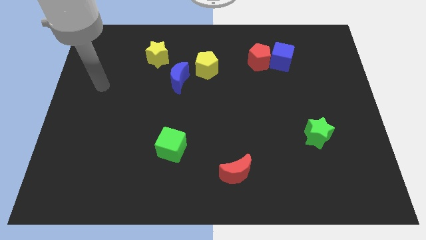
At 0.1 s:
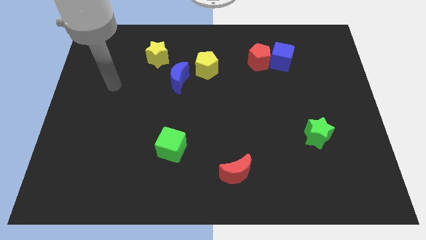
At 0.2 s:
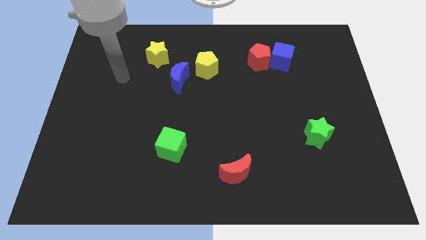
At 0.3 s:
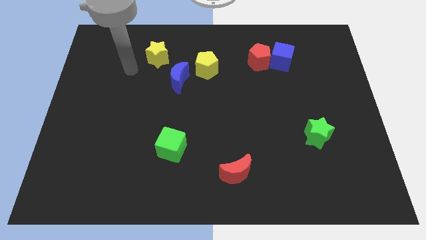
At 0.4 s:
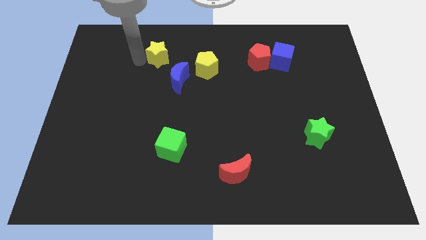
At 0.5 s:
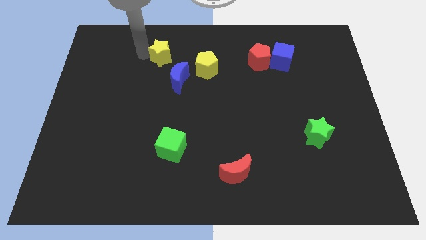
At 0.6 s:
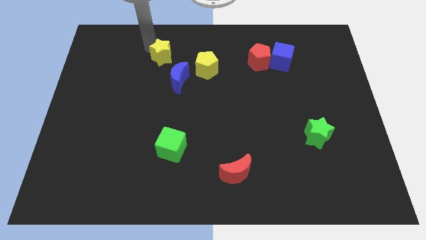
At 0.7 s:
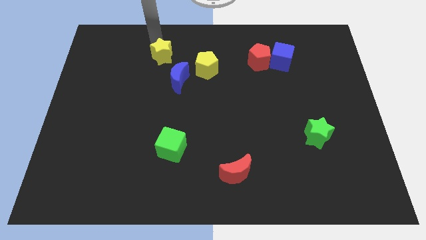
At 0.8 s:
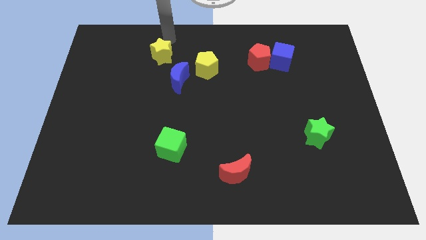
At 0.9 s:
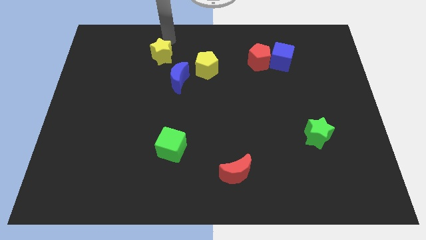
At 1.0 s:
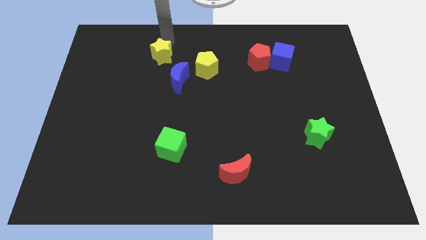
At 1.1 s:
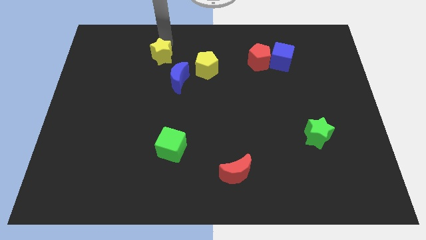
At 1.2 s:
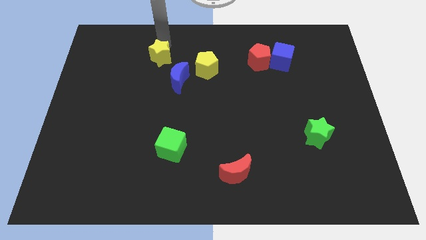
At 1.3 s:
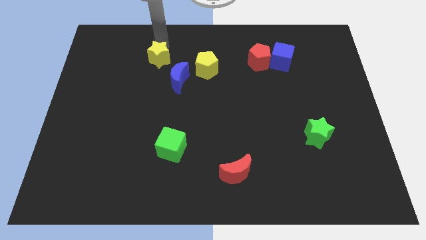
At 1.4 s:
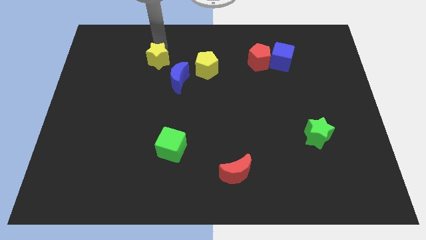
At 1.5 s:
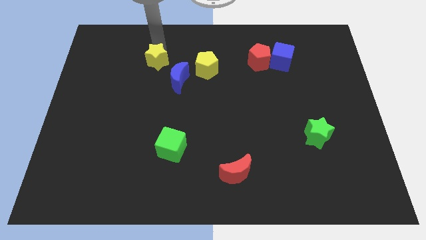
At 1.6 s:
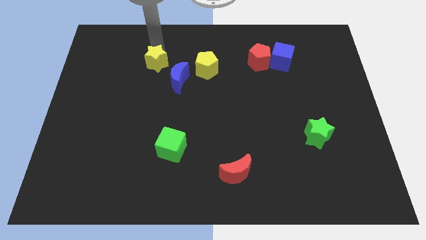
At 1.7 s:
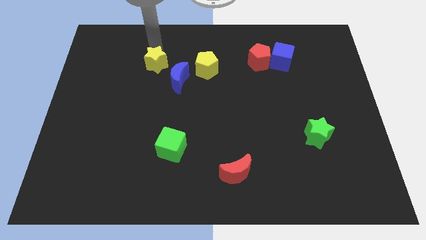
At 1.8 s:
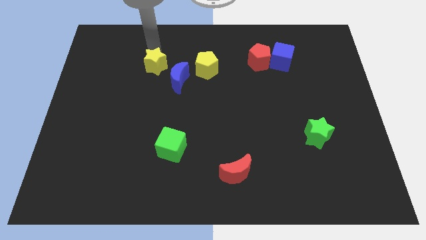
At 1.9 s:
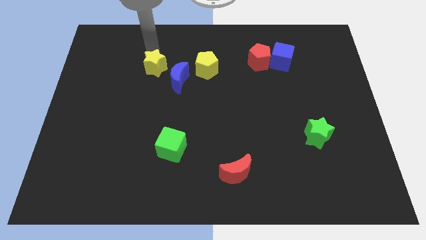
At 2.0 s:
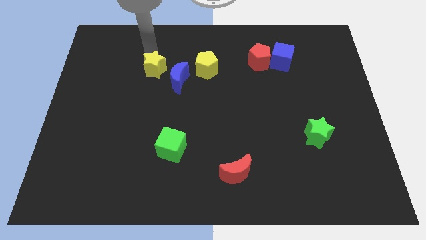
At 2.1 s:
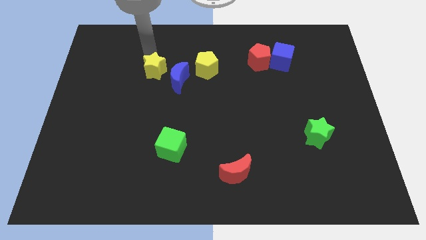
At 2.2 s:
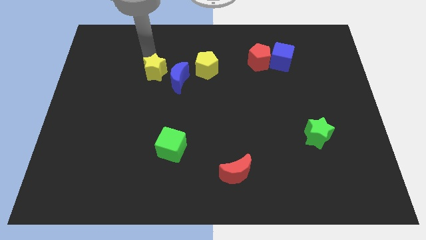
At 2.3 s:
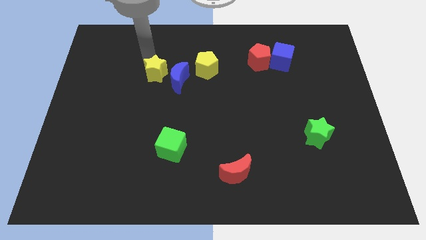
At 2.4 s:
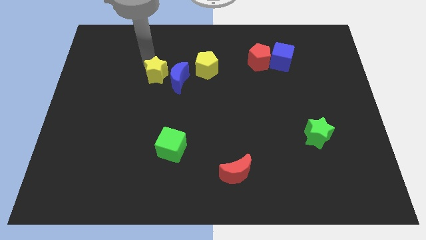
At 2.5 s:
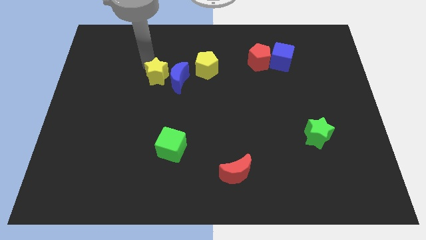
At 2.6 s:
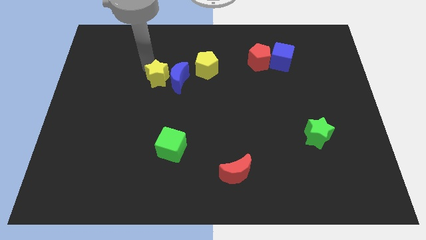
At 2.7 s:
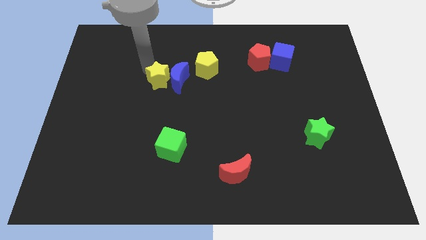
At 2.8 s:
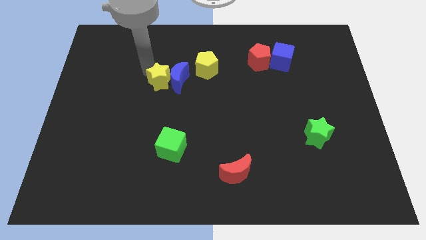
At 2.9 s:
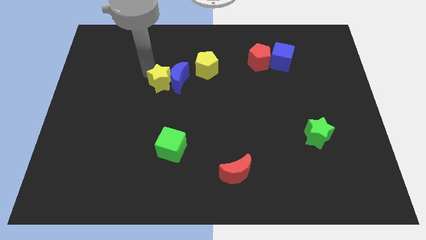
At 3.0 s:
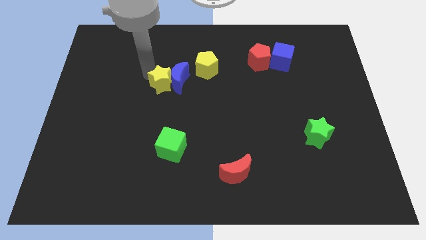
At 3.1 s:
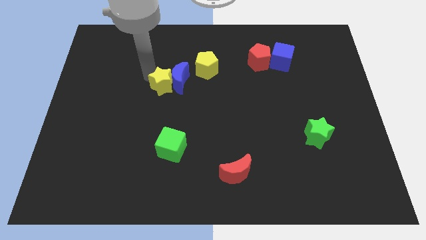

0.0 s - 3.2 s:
push the yellow star down and then to the right slightly

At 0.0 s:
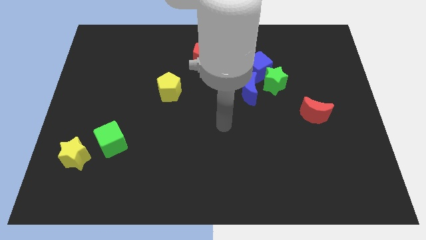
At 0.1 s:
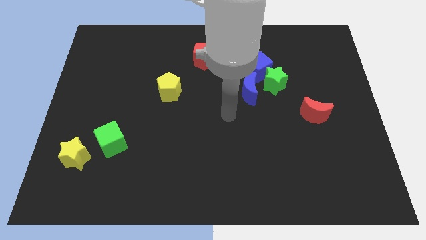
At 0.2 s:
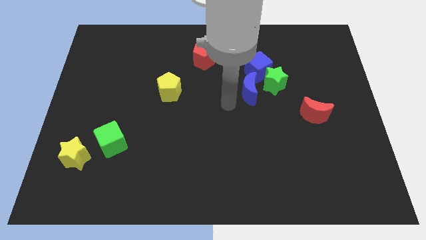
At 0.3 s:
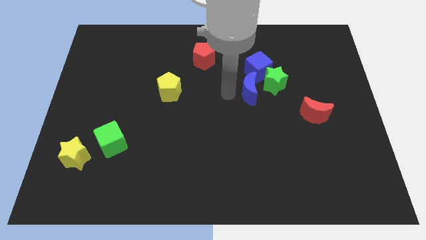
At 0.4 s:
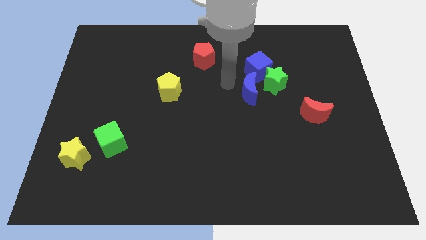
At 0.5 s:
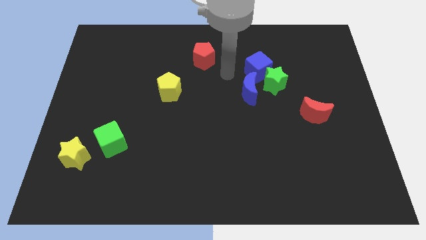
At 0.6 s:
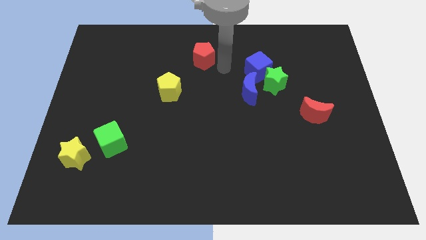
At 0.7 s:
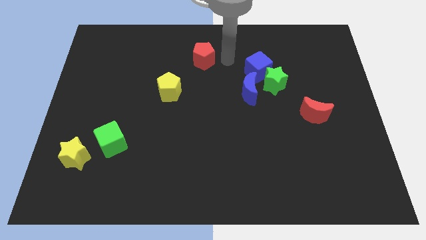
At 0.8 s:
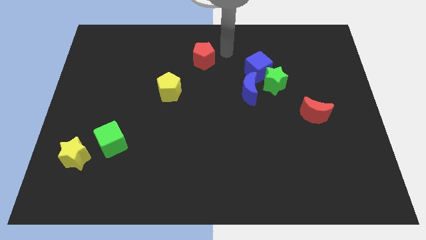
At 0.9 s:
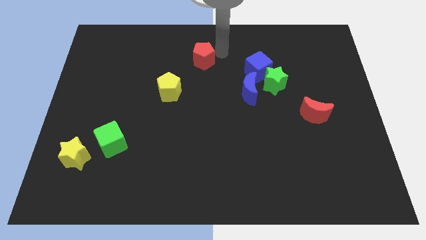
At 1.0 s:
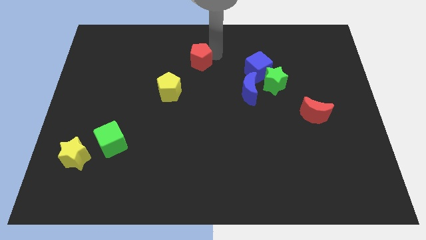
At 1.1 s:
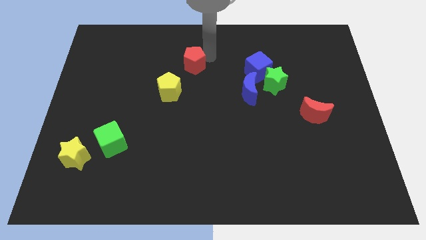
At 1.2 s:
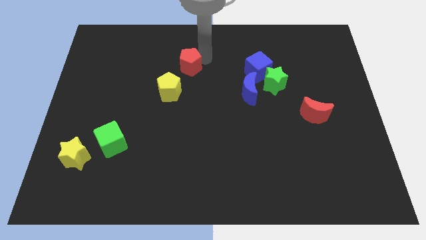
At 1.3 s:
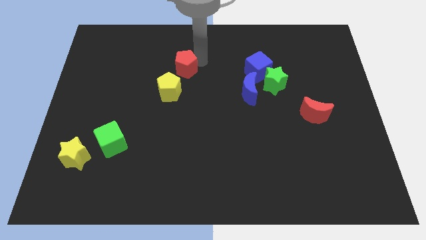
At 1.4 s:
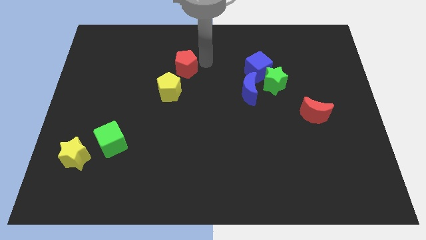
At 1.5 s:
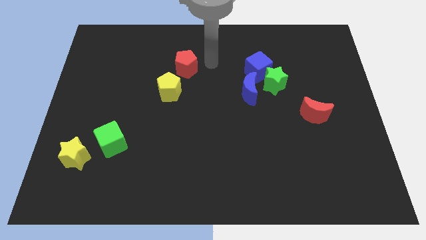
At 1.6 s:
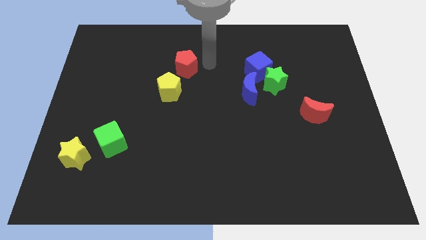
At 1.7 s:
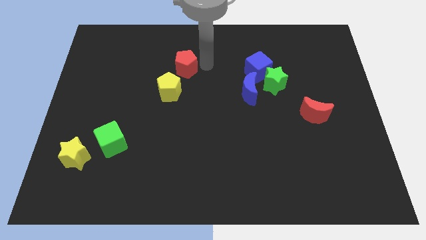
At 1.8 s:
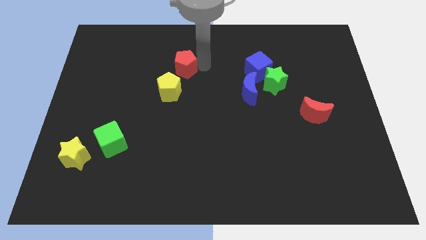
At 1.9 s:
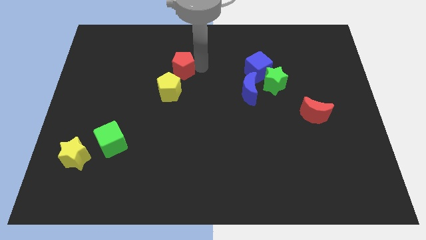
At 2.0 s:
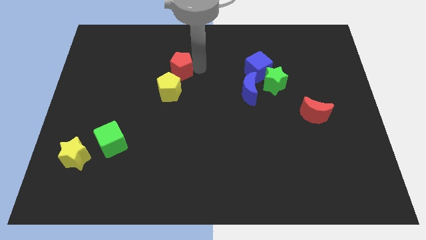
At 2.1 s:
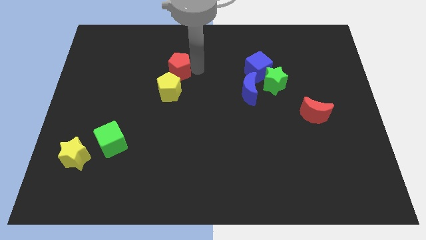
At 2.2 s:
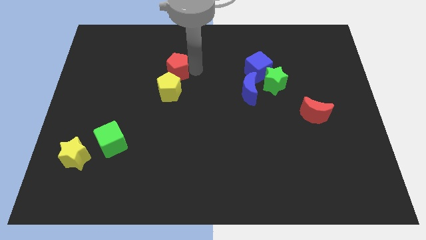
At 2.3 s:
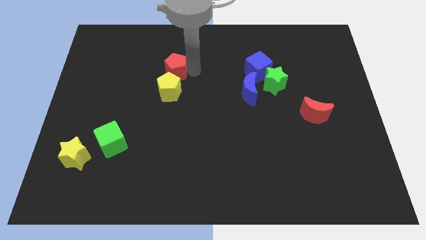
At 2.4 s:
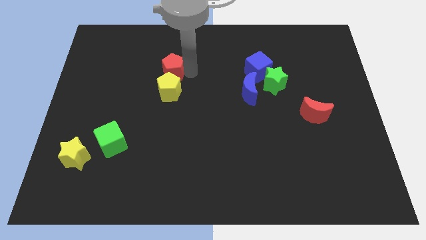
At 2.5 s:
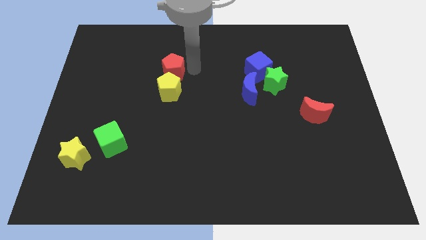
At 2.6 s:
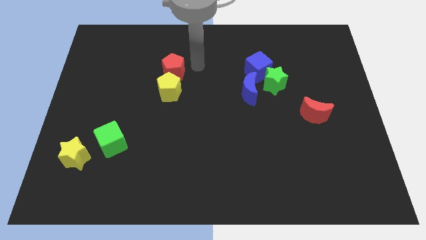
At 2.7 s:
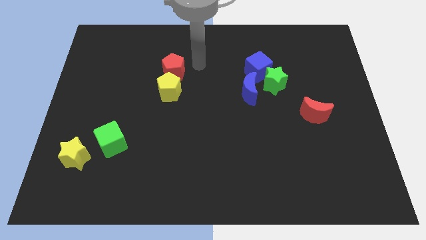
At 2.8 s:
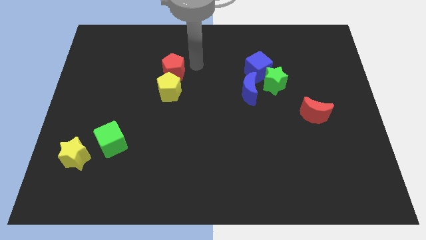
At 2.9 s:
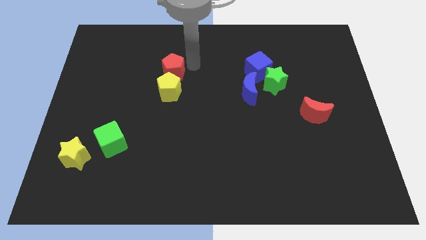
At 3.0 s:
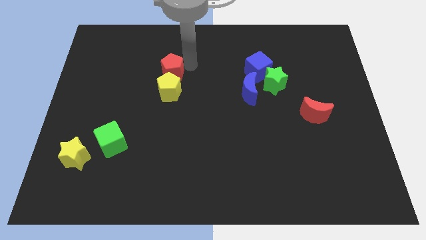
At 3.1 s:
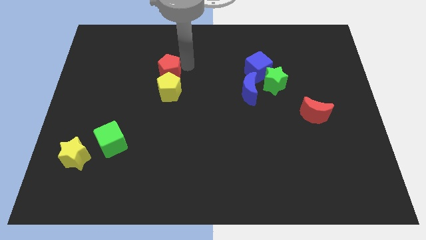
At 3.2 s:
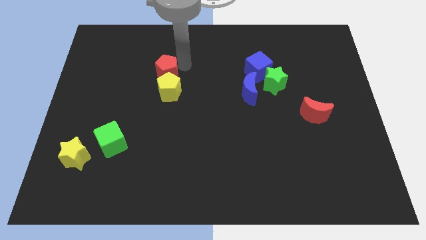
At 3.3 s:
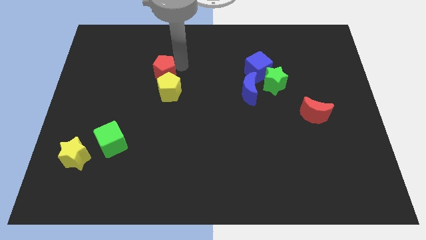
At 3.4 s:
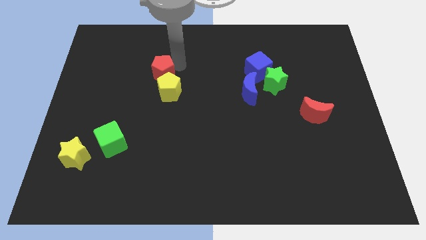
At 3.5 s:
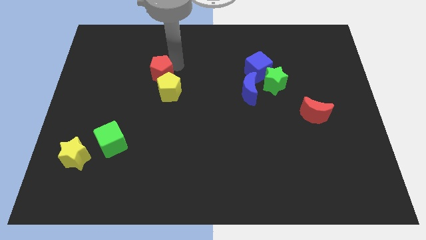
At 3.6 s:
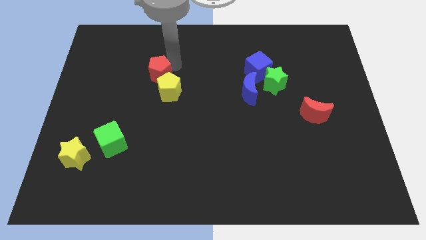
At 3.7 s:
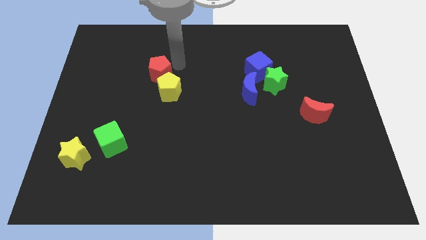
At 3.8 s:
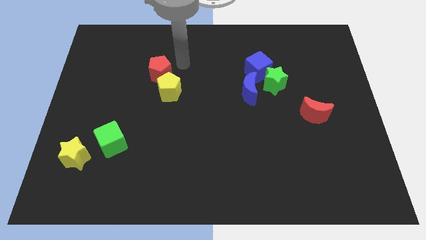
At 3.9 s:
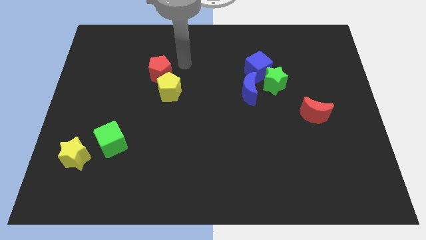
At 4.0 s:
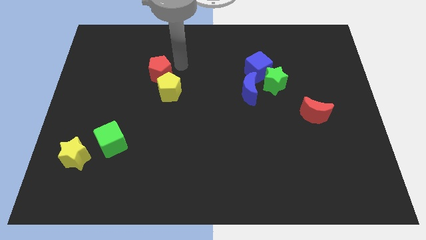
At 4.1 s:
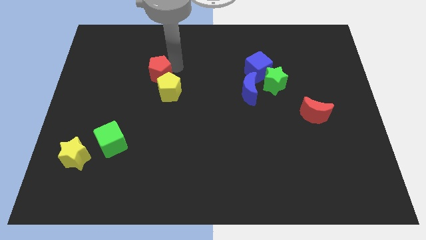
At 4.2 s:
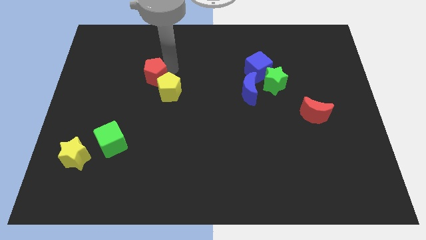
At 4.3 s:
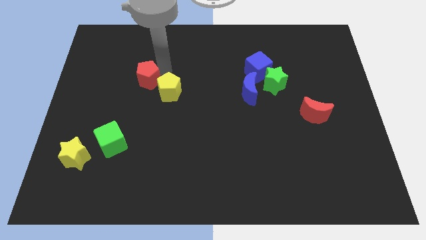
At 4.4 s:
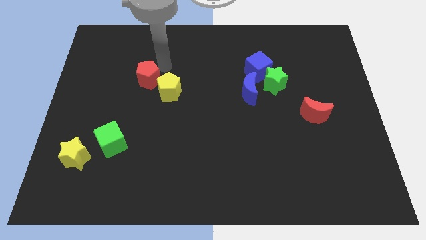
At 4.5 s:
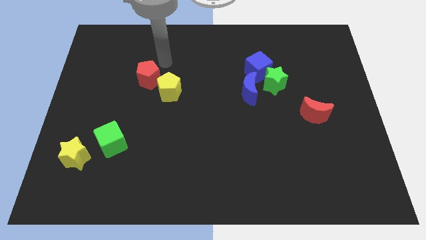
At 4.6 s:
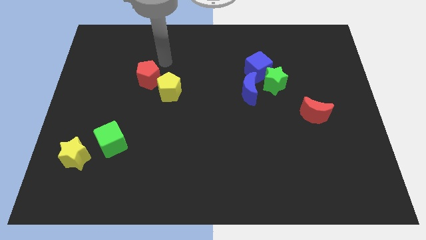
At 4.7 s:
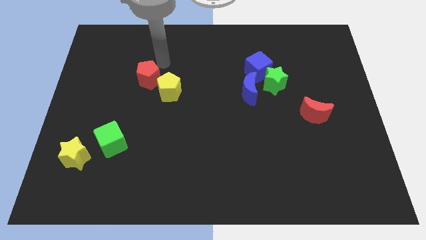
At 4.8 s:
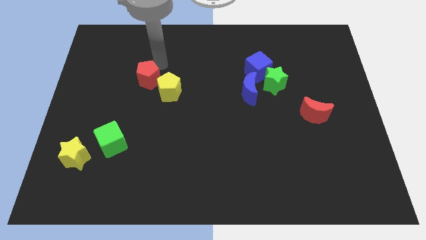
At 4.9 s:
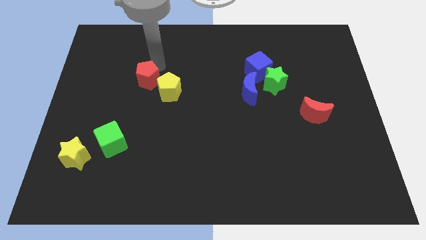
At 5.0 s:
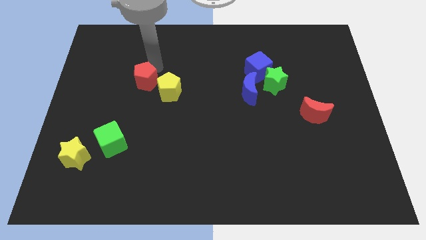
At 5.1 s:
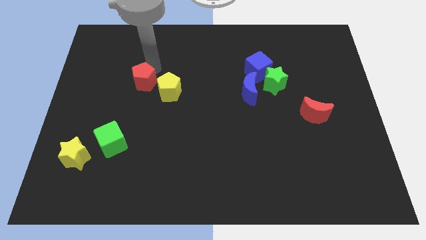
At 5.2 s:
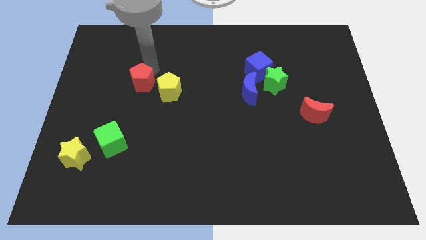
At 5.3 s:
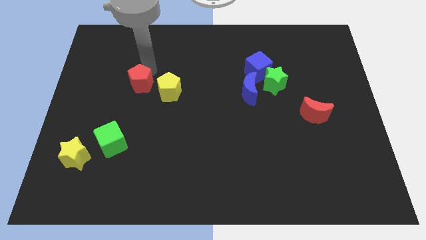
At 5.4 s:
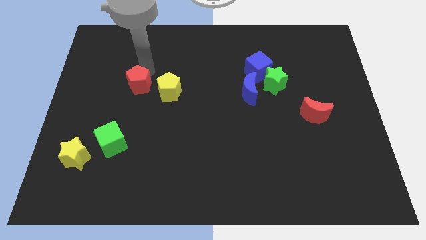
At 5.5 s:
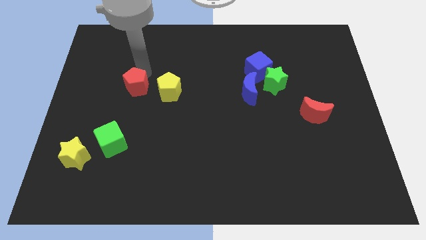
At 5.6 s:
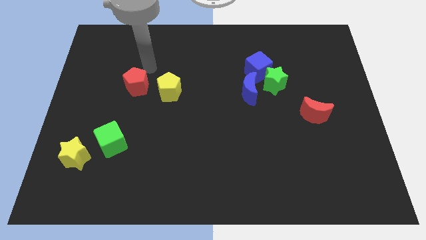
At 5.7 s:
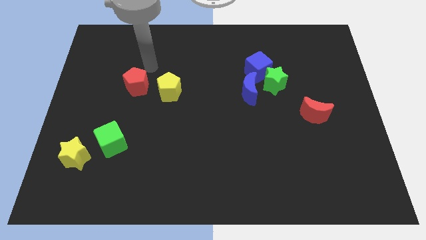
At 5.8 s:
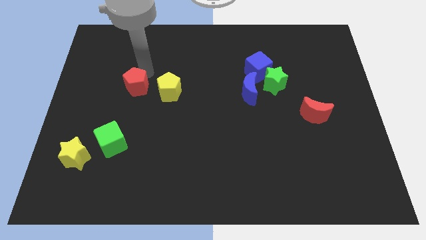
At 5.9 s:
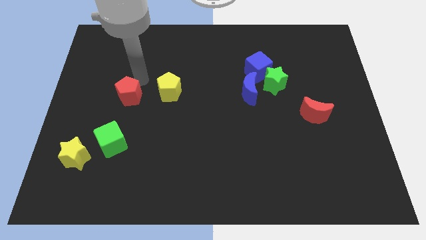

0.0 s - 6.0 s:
slide the red pentagon downwards and then left
